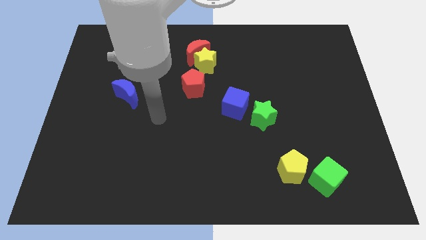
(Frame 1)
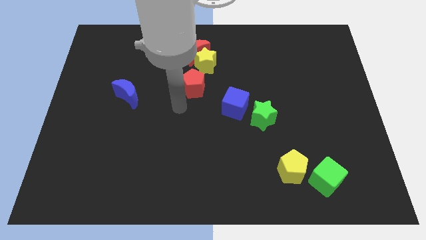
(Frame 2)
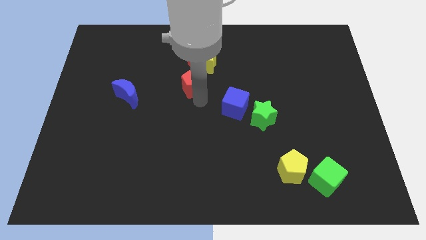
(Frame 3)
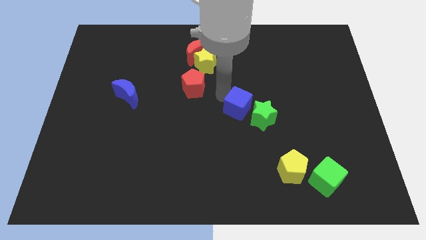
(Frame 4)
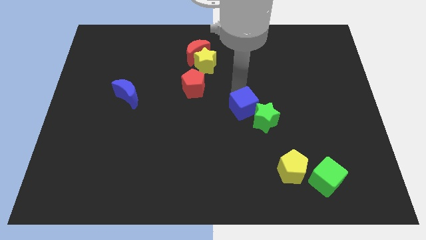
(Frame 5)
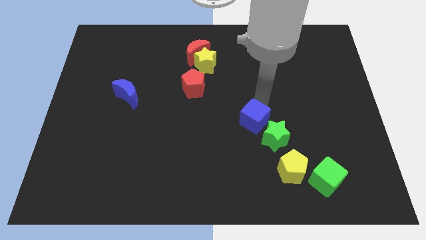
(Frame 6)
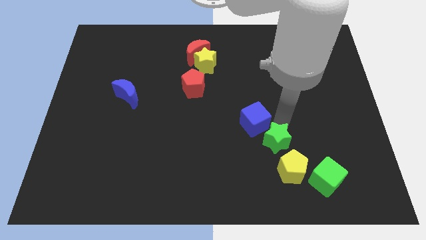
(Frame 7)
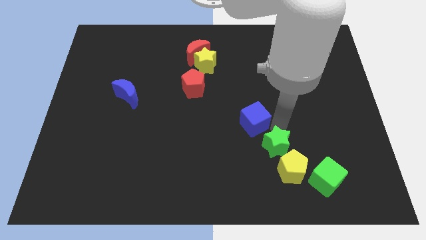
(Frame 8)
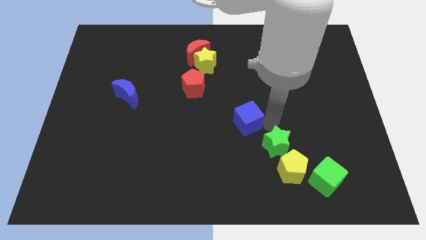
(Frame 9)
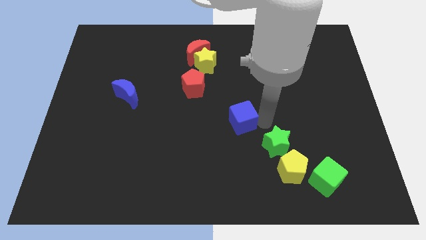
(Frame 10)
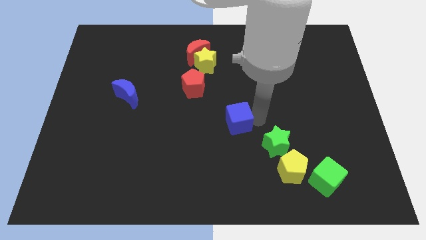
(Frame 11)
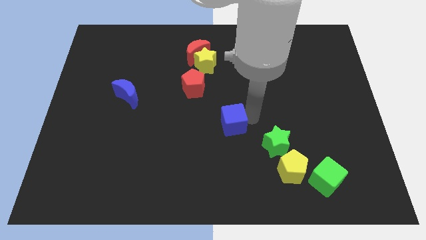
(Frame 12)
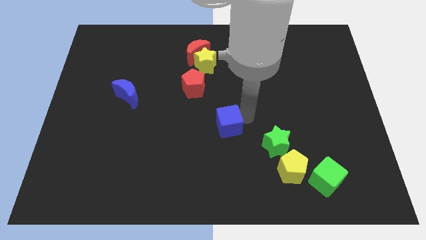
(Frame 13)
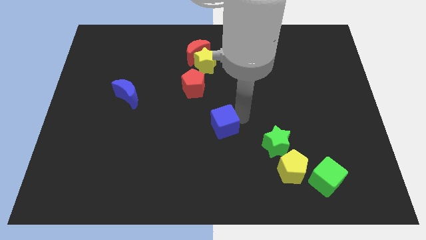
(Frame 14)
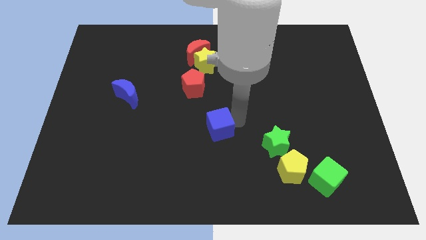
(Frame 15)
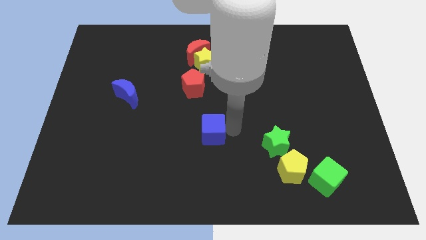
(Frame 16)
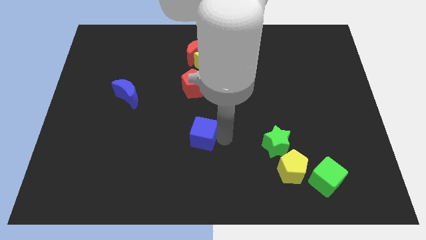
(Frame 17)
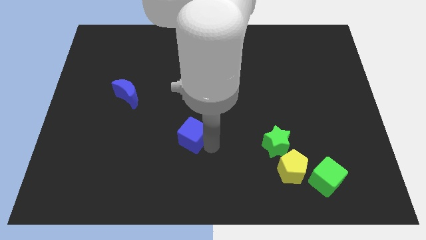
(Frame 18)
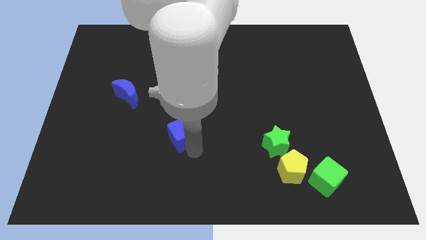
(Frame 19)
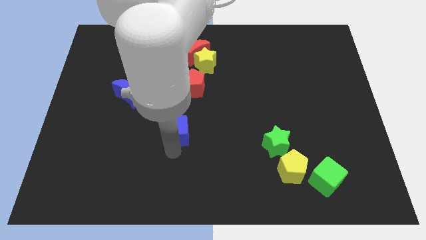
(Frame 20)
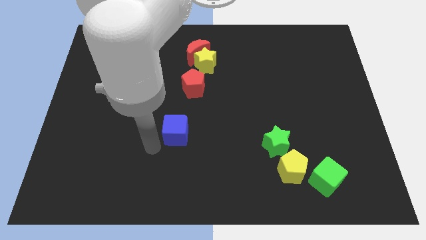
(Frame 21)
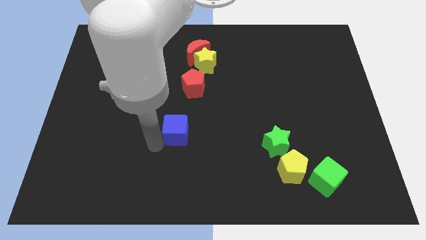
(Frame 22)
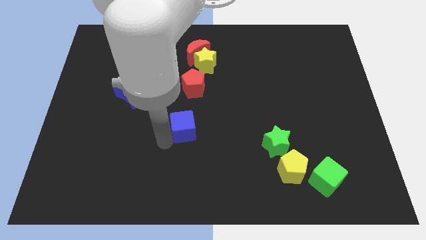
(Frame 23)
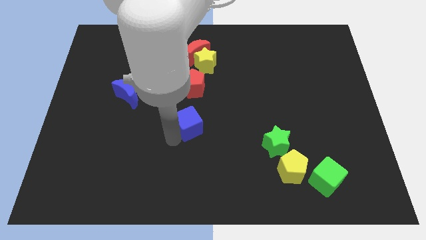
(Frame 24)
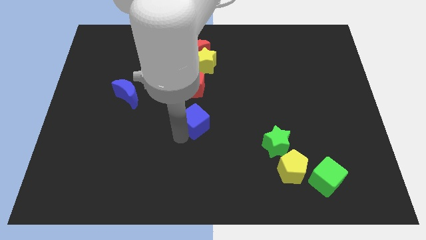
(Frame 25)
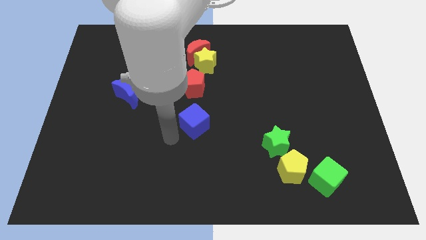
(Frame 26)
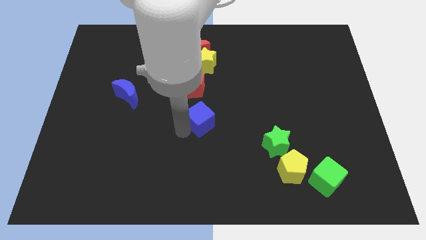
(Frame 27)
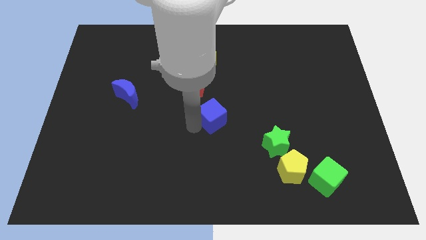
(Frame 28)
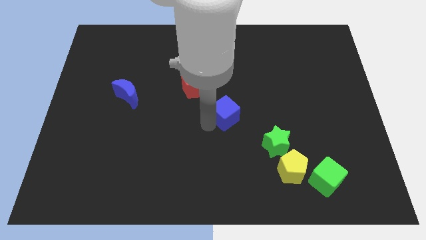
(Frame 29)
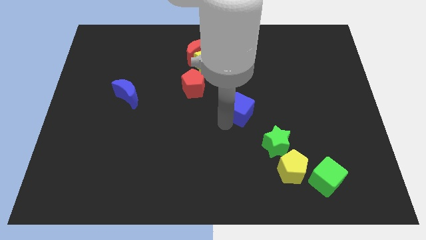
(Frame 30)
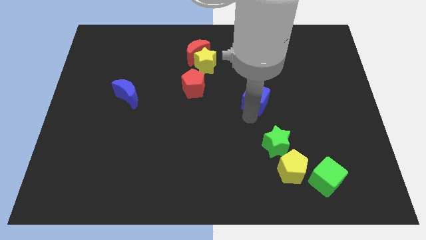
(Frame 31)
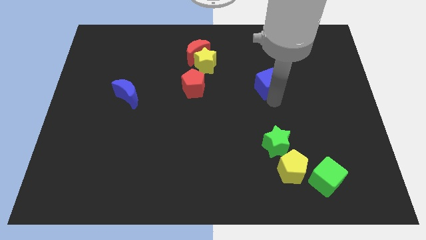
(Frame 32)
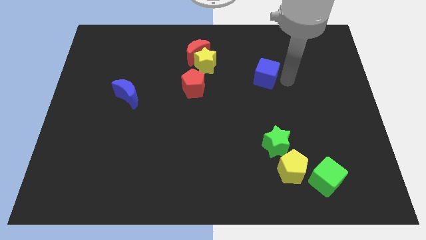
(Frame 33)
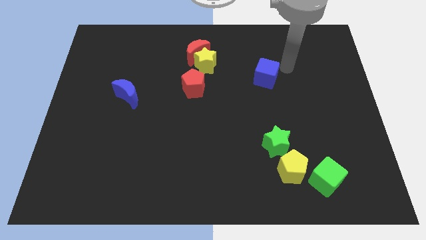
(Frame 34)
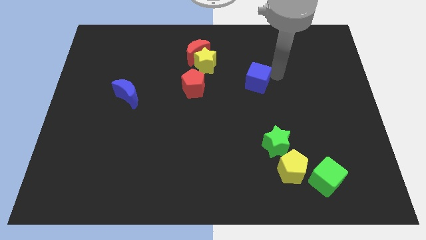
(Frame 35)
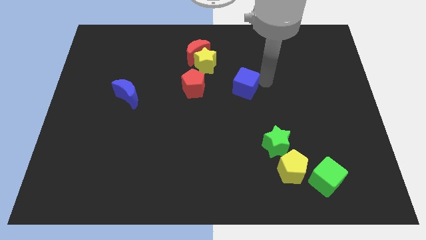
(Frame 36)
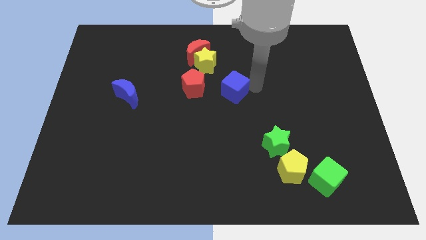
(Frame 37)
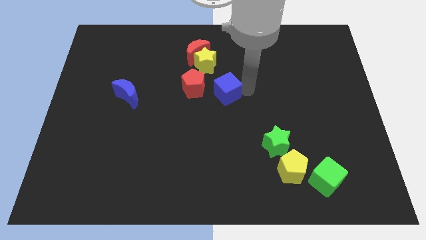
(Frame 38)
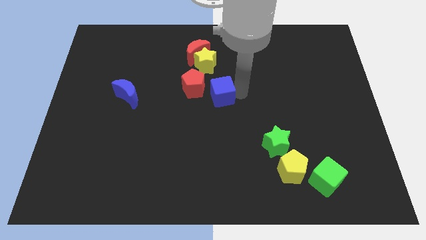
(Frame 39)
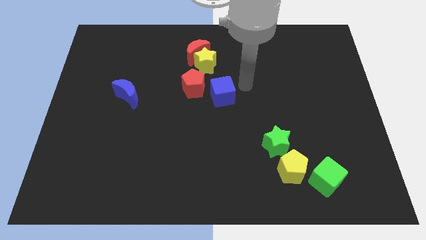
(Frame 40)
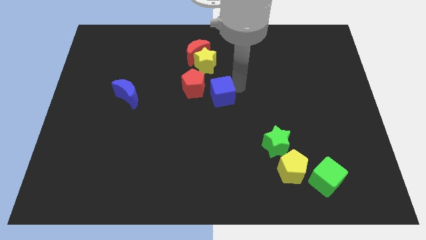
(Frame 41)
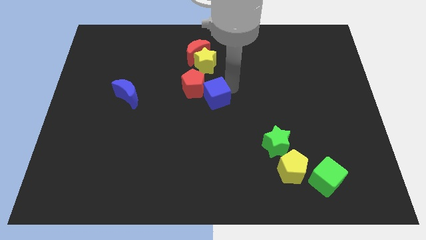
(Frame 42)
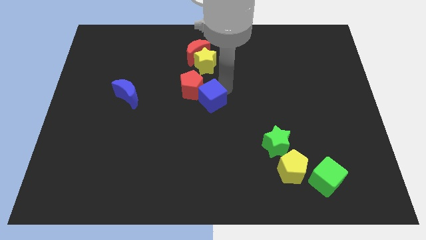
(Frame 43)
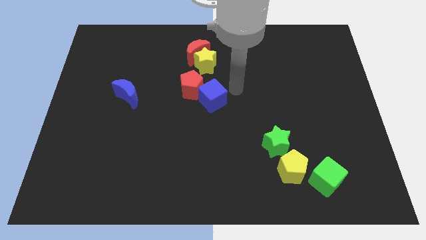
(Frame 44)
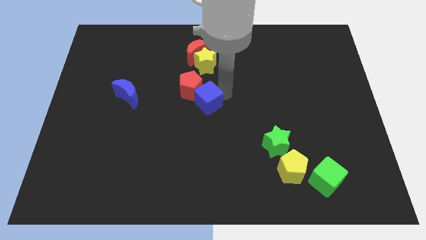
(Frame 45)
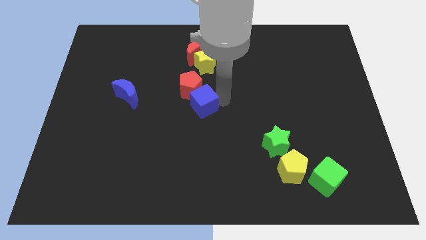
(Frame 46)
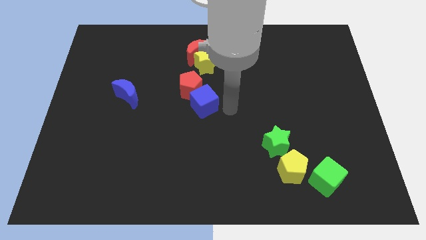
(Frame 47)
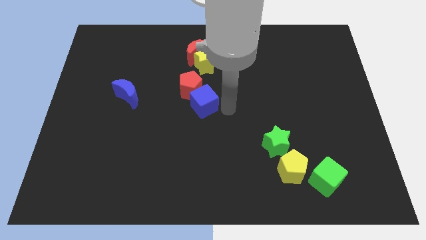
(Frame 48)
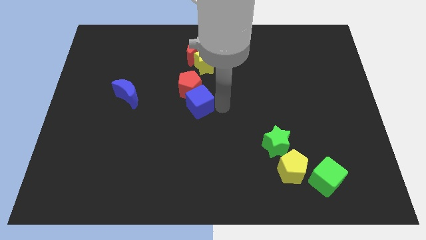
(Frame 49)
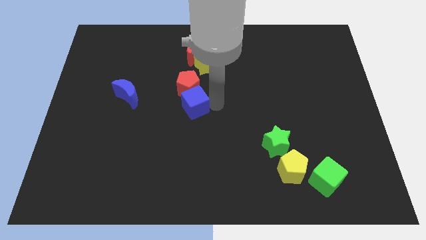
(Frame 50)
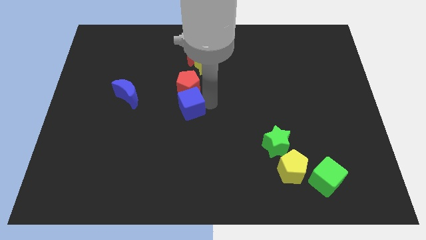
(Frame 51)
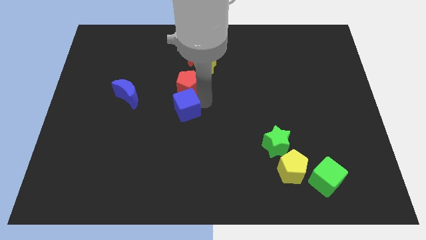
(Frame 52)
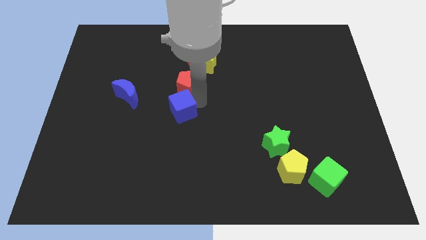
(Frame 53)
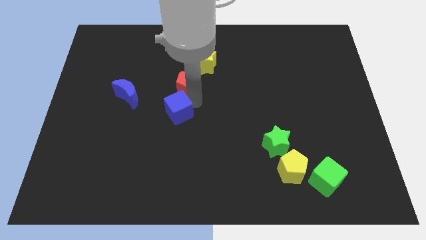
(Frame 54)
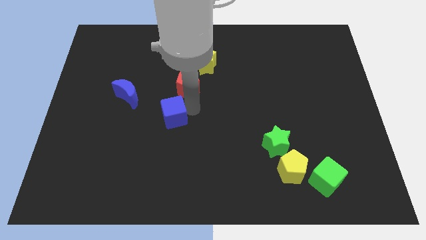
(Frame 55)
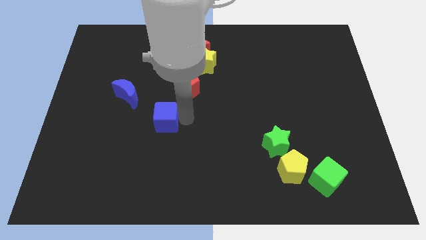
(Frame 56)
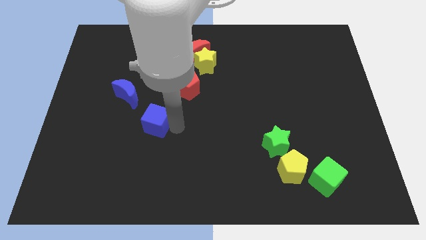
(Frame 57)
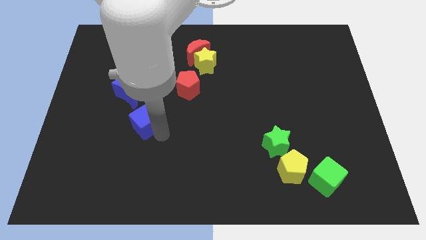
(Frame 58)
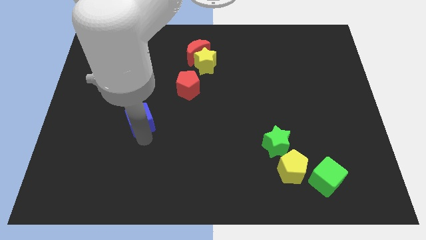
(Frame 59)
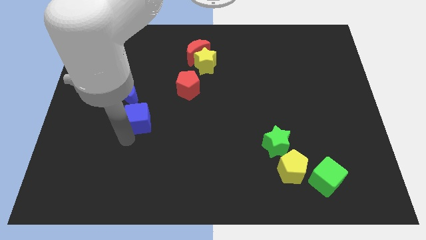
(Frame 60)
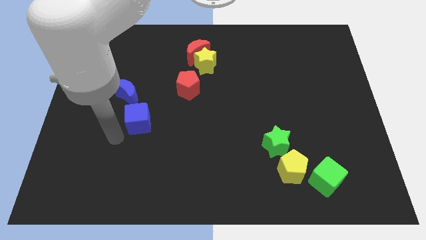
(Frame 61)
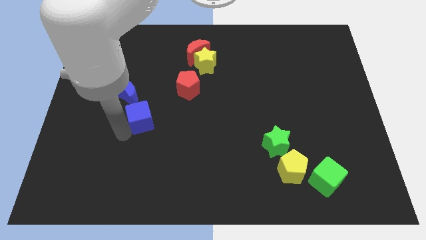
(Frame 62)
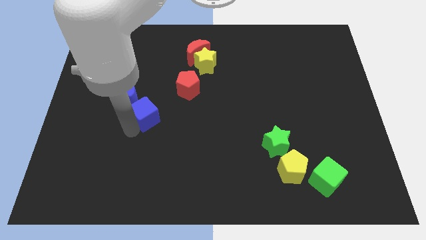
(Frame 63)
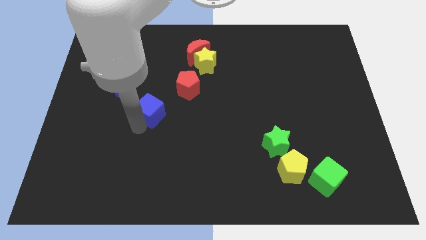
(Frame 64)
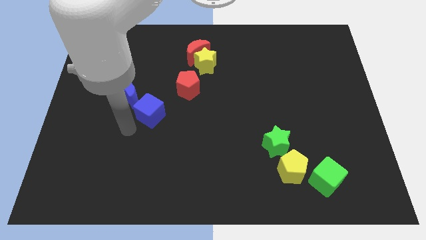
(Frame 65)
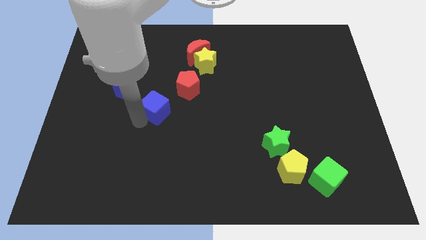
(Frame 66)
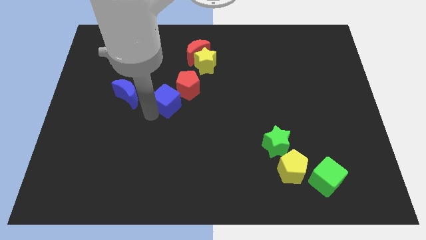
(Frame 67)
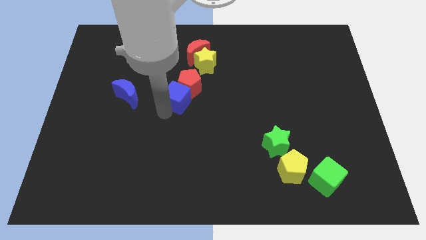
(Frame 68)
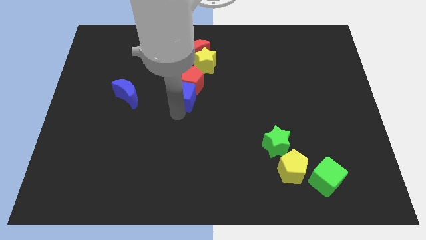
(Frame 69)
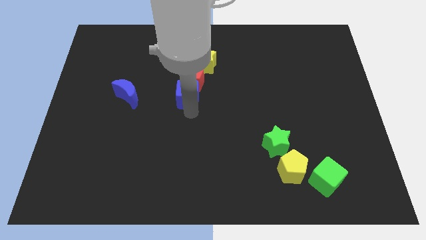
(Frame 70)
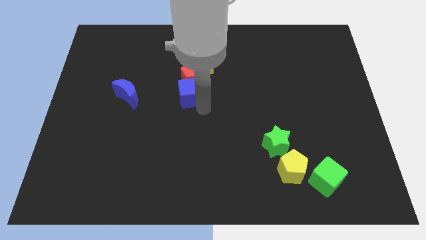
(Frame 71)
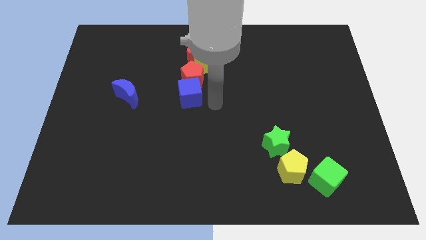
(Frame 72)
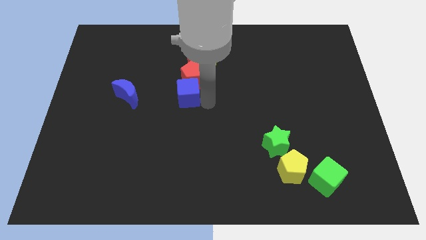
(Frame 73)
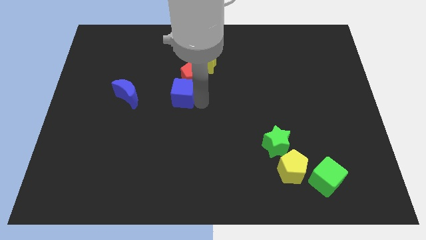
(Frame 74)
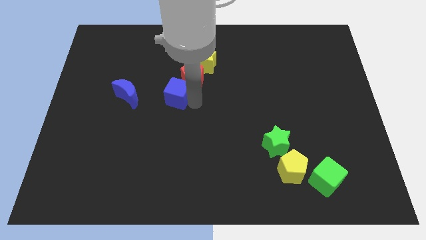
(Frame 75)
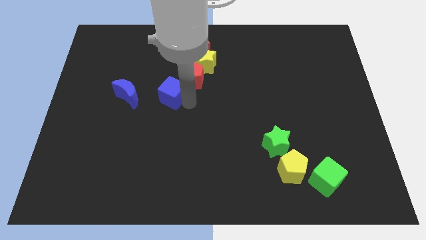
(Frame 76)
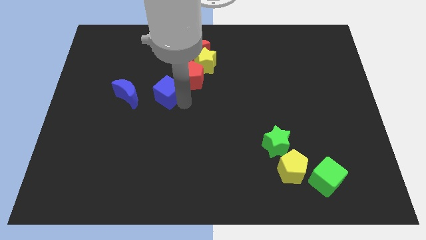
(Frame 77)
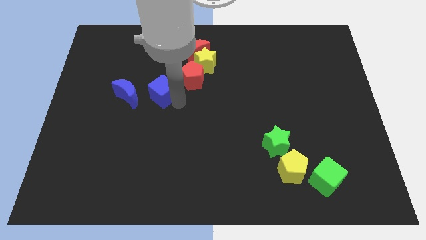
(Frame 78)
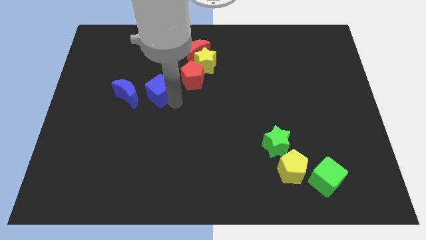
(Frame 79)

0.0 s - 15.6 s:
put the blue cube to the top right side of the blue moon
